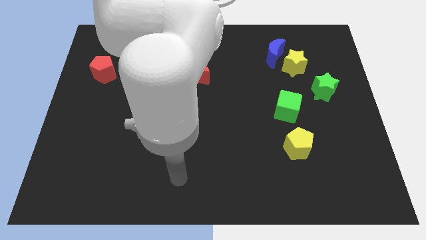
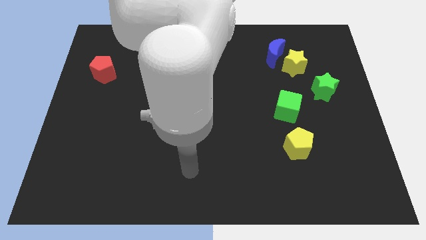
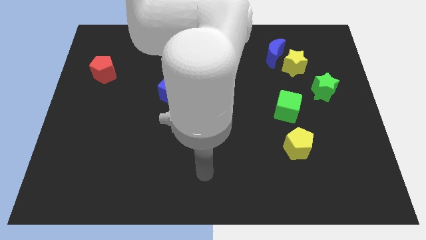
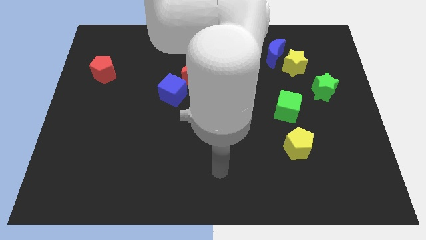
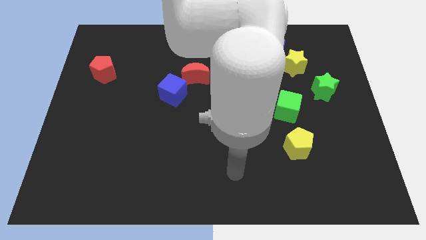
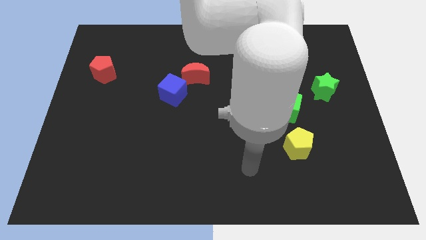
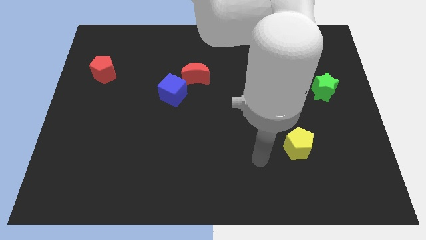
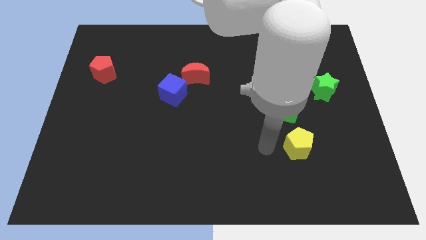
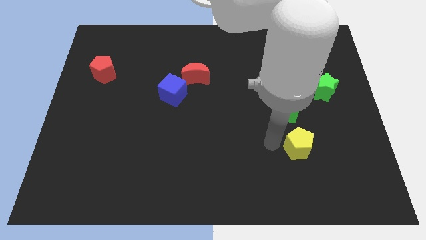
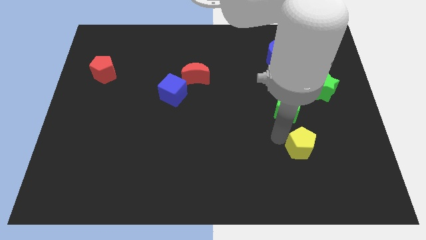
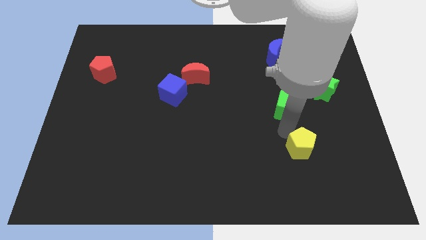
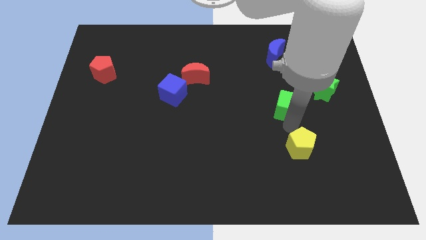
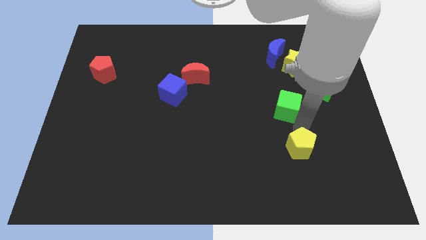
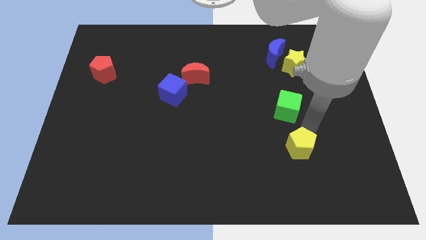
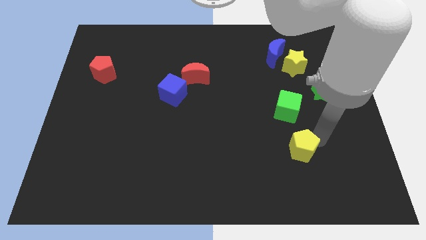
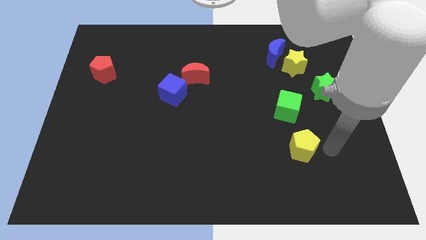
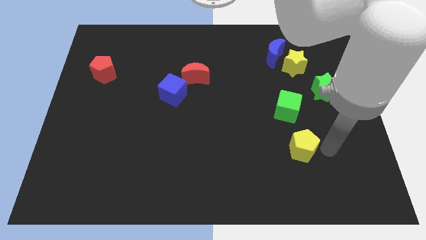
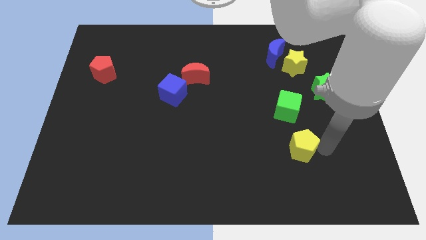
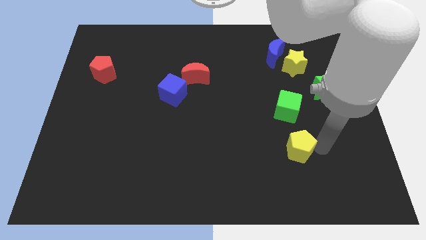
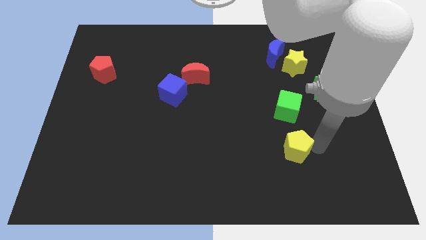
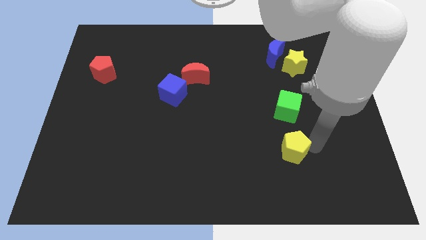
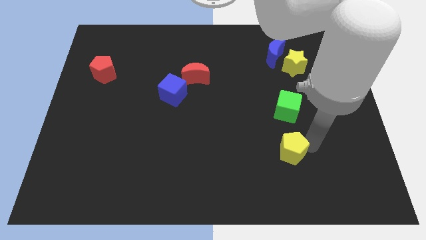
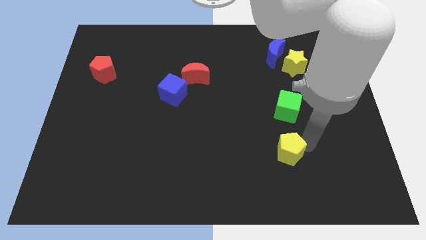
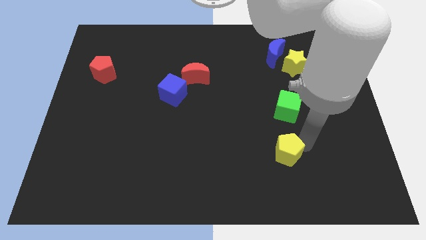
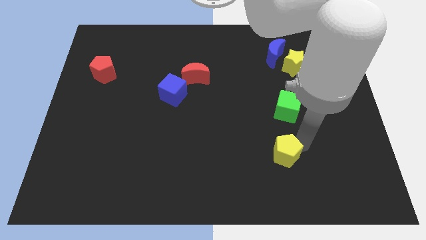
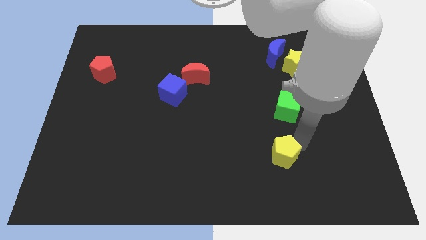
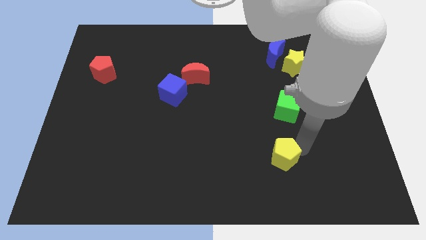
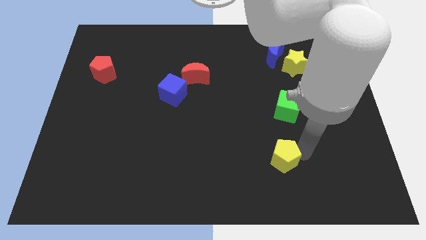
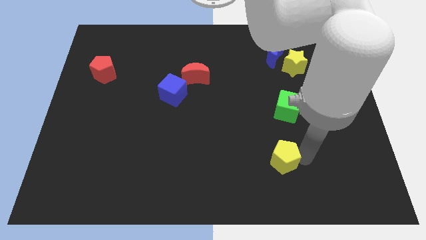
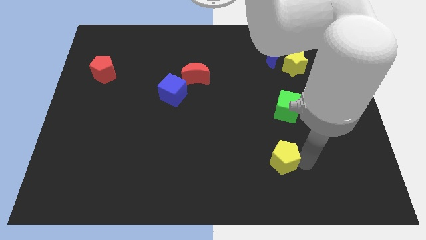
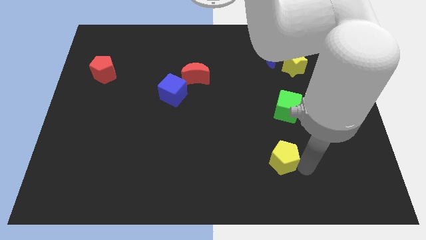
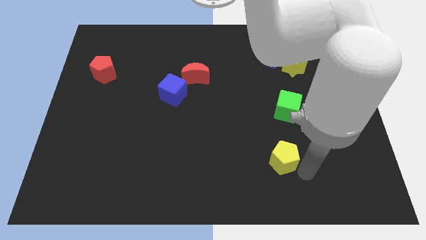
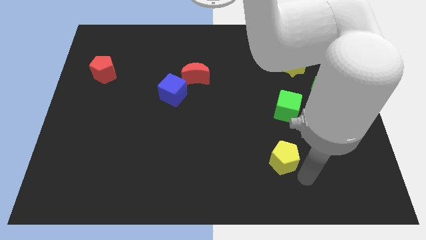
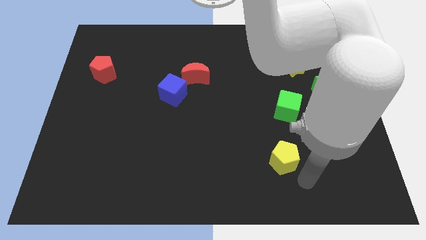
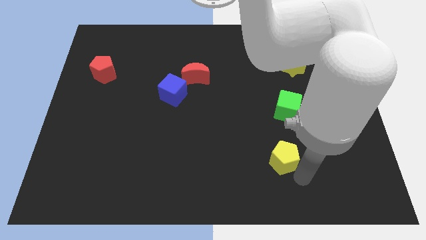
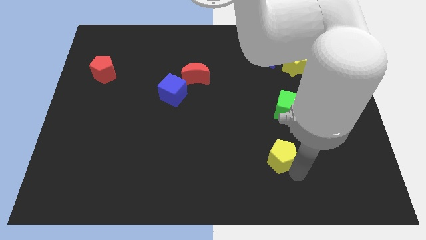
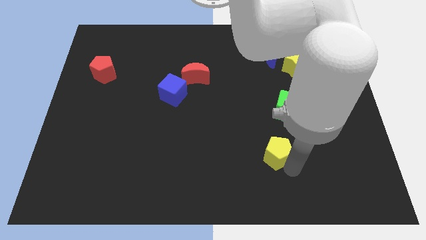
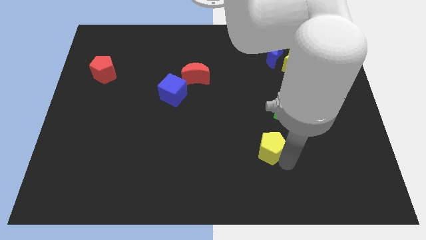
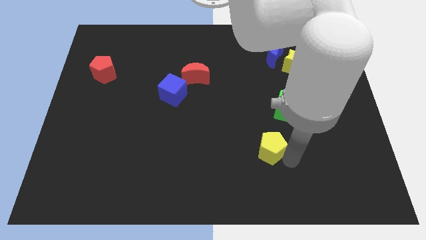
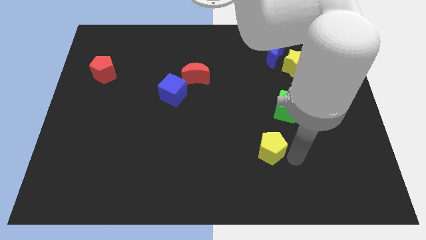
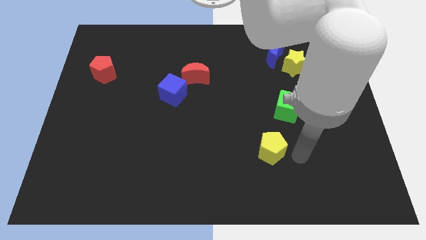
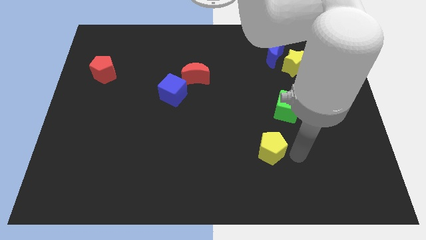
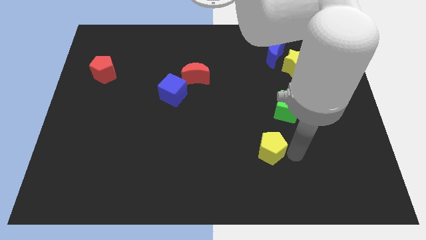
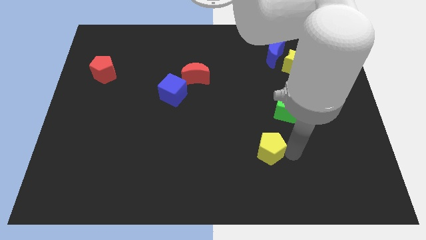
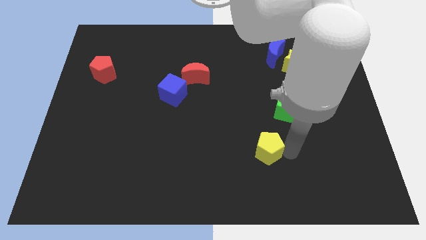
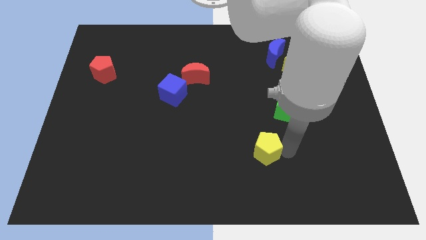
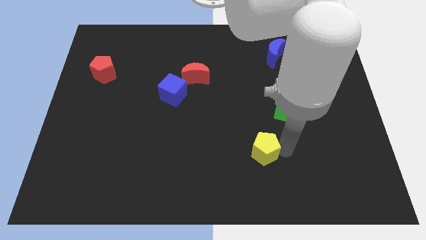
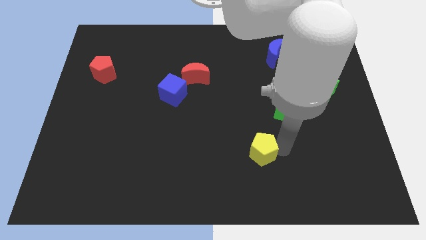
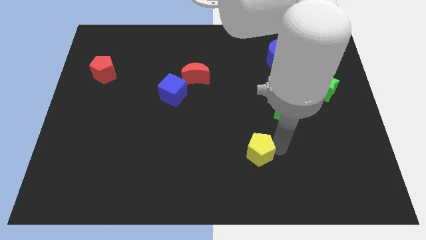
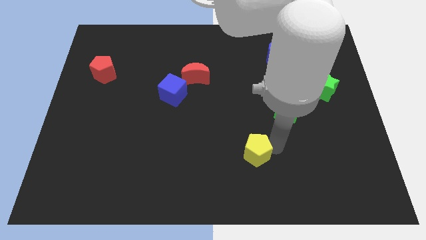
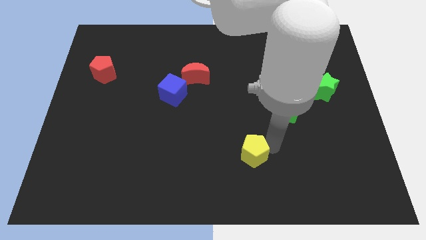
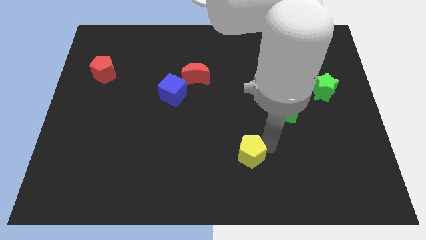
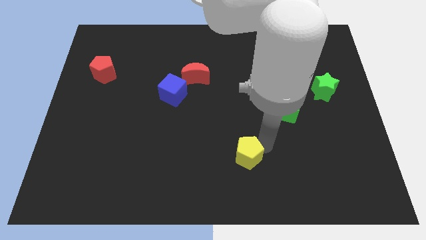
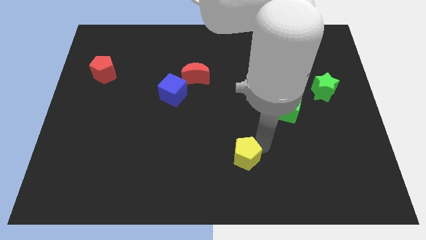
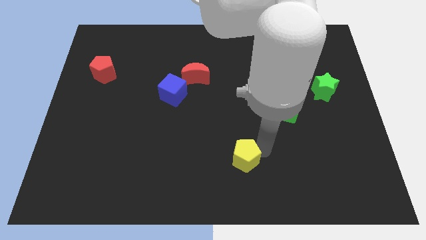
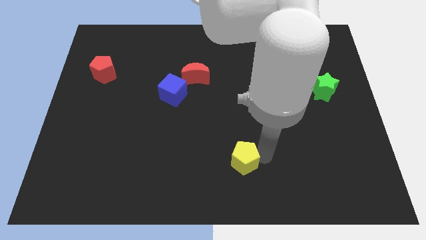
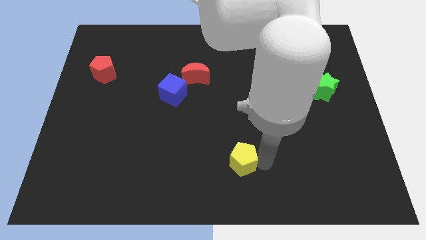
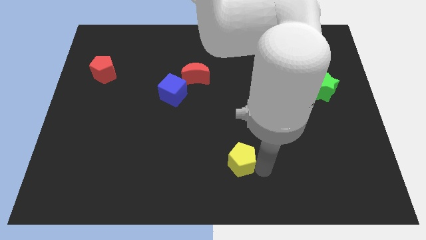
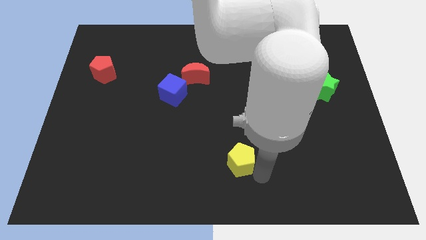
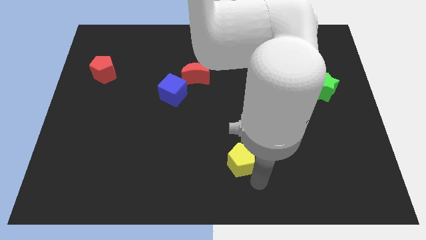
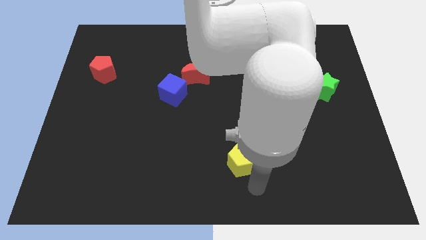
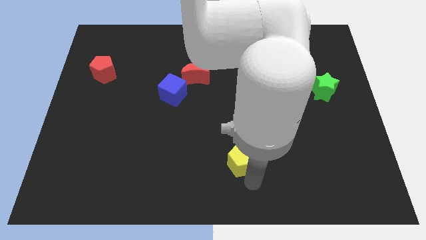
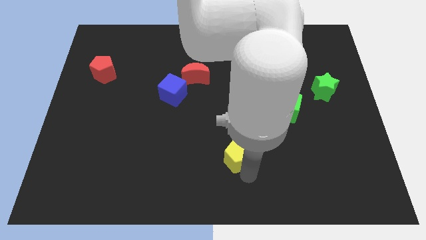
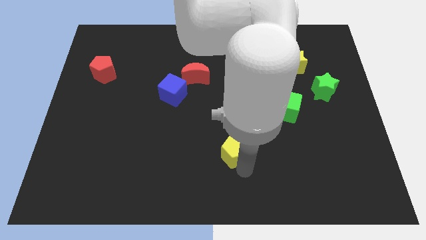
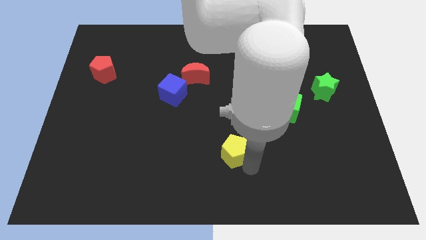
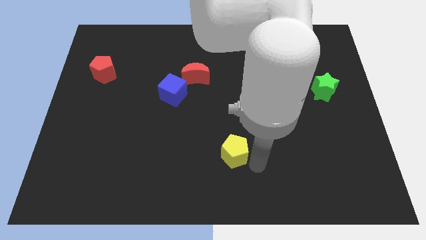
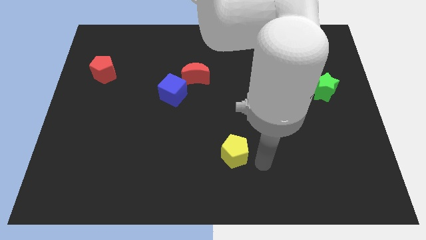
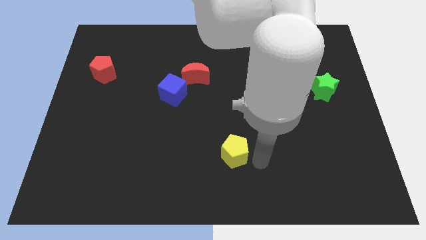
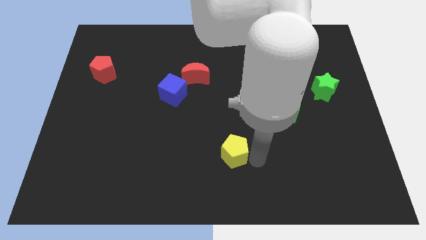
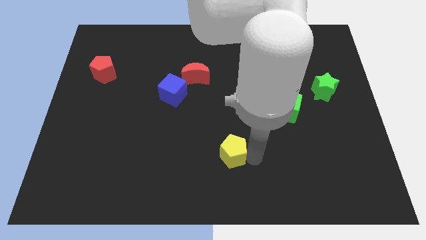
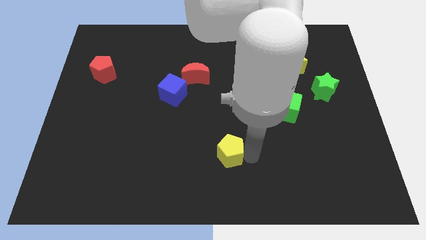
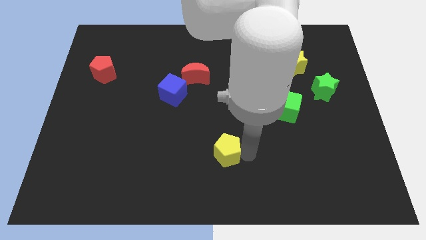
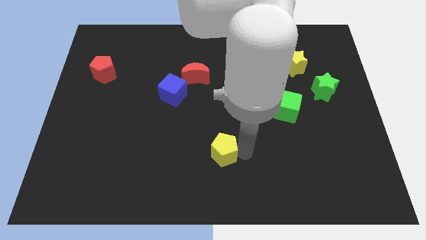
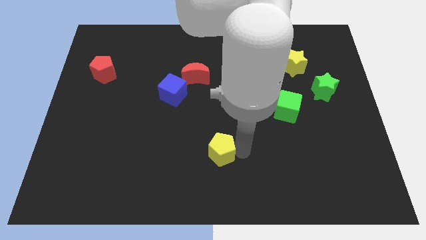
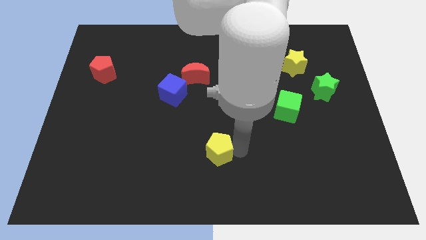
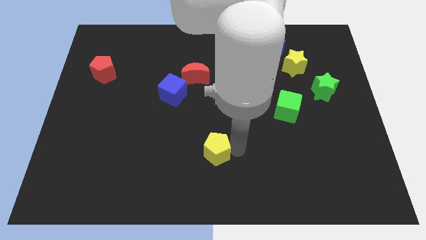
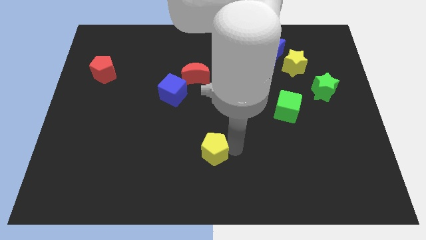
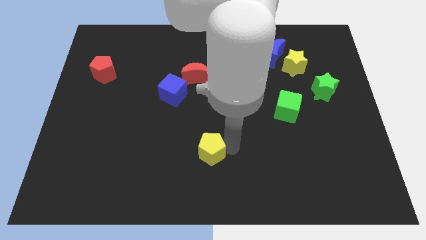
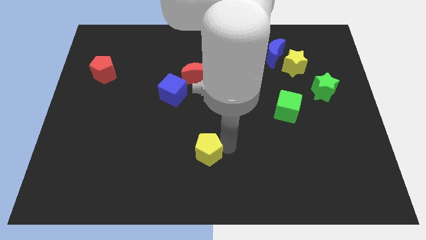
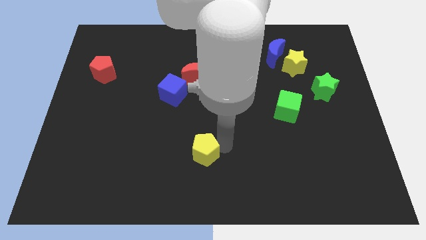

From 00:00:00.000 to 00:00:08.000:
push the yellow pentagon to the left
